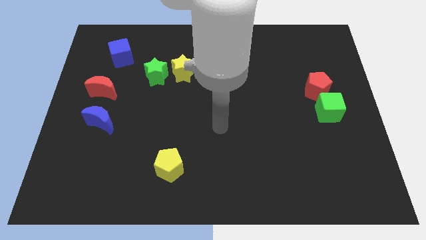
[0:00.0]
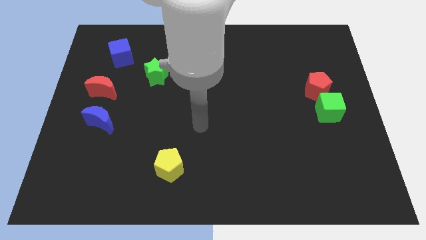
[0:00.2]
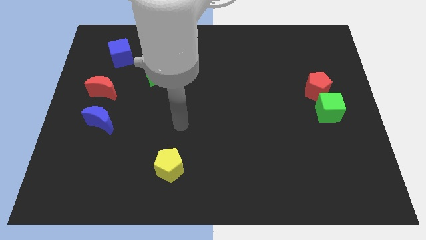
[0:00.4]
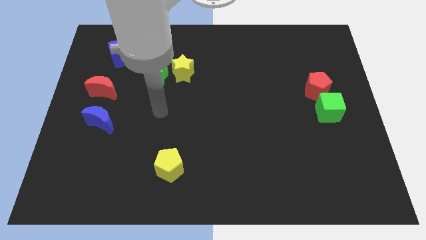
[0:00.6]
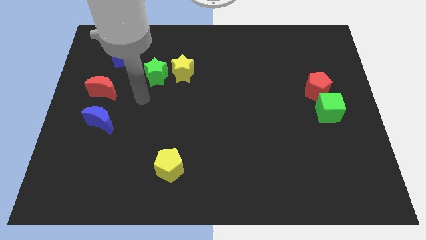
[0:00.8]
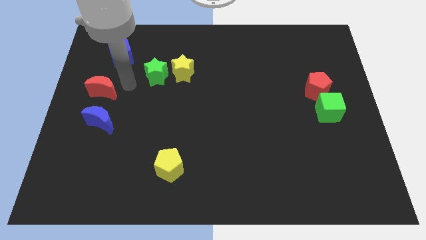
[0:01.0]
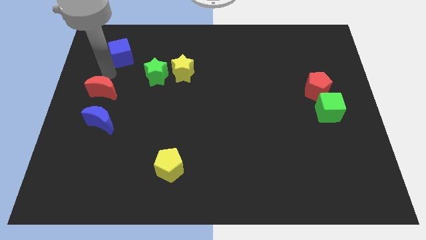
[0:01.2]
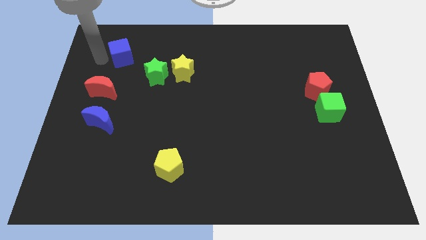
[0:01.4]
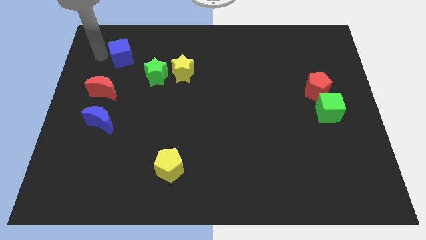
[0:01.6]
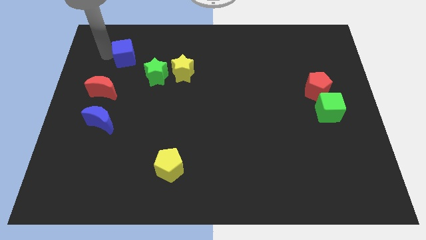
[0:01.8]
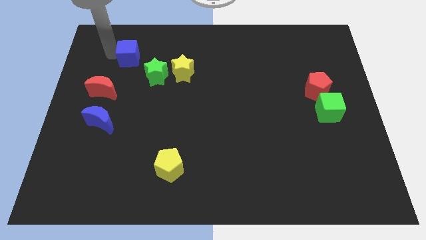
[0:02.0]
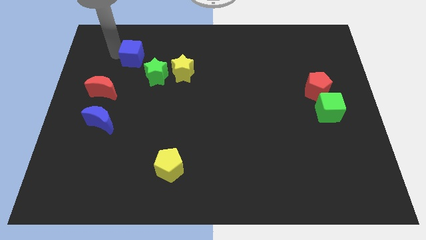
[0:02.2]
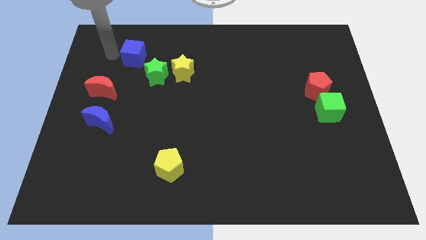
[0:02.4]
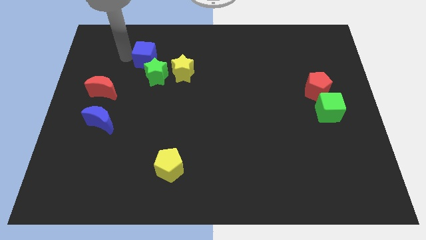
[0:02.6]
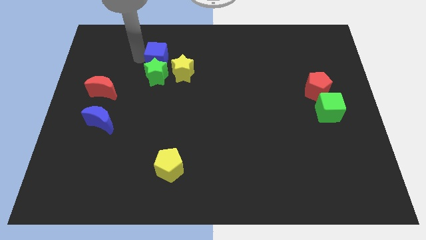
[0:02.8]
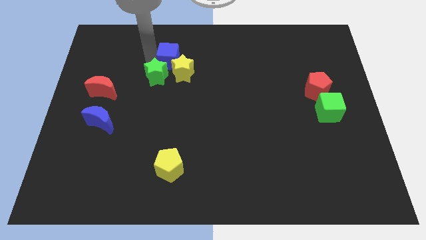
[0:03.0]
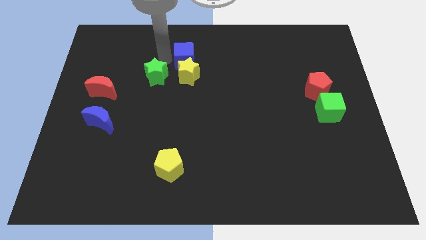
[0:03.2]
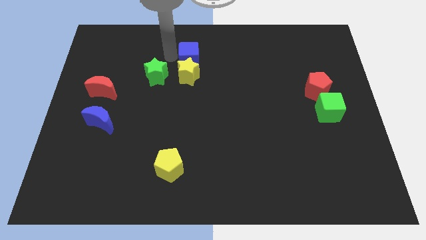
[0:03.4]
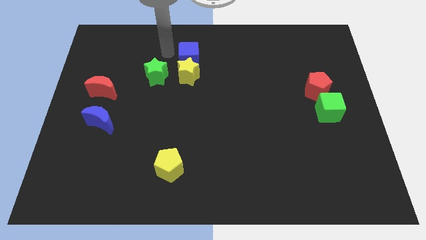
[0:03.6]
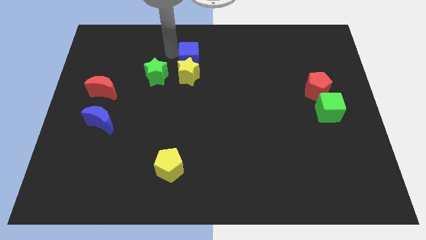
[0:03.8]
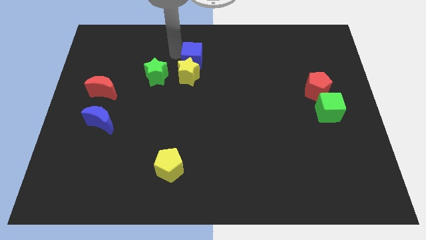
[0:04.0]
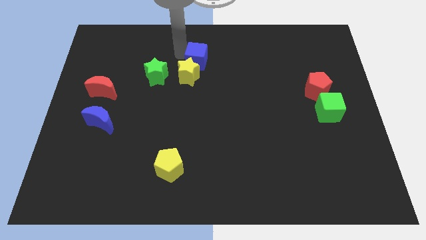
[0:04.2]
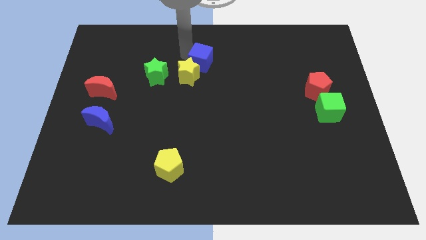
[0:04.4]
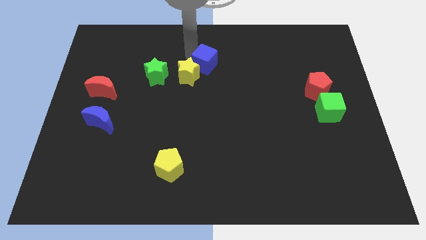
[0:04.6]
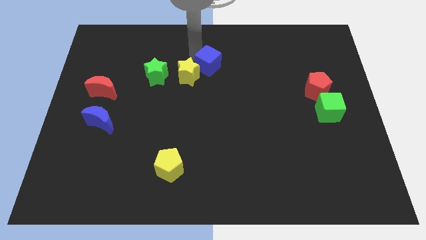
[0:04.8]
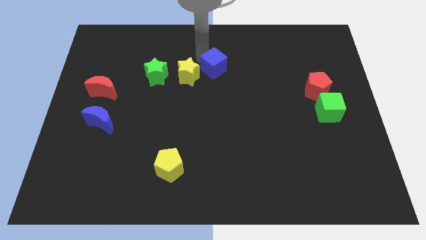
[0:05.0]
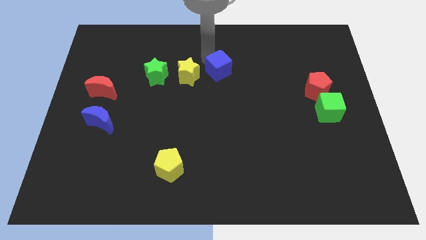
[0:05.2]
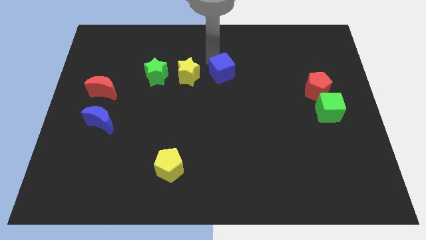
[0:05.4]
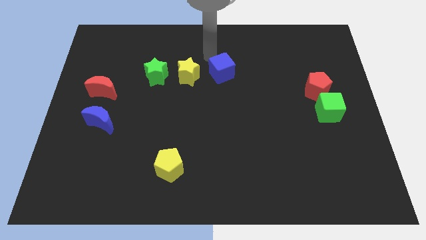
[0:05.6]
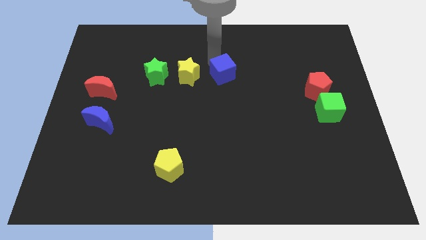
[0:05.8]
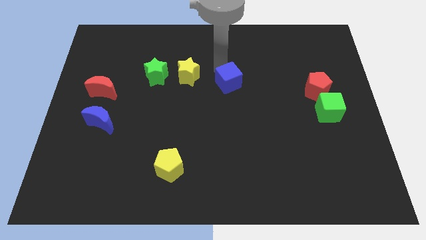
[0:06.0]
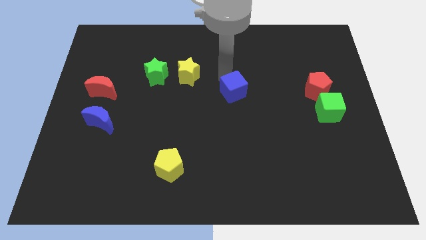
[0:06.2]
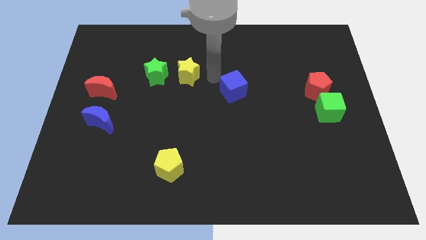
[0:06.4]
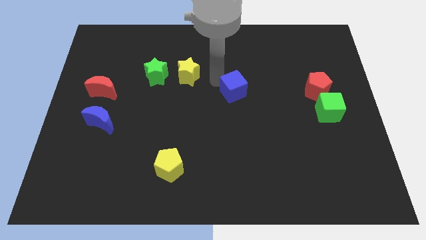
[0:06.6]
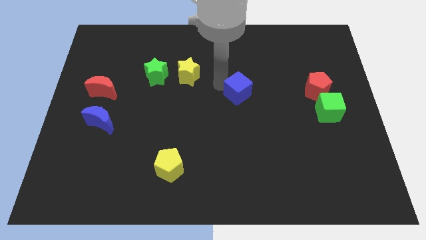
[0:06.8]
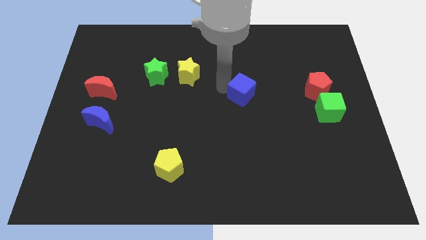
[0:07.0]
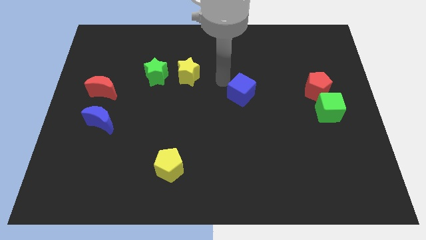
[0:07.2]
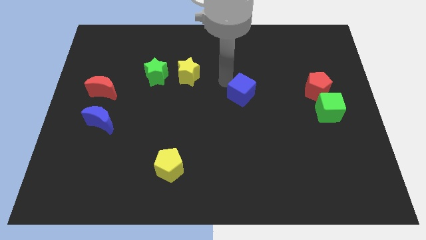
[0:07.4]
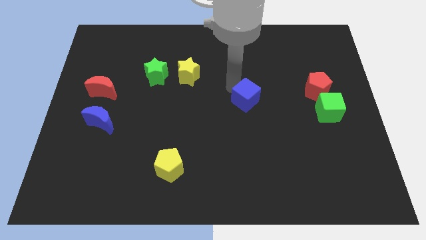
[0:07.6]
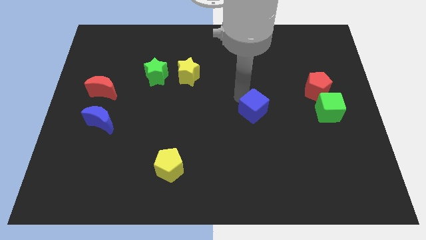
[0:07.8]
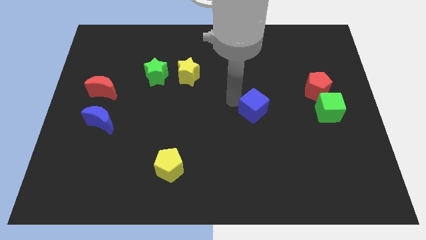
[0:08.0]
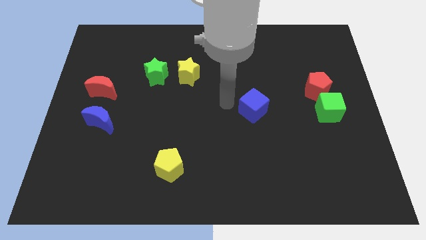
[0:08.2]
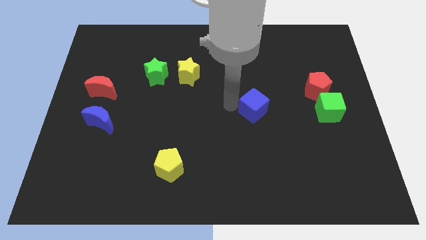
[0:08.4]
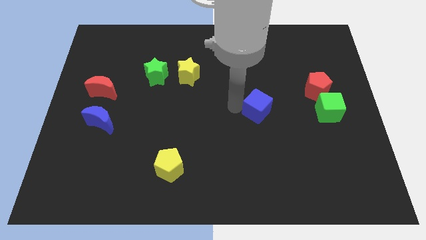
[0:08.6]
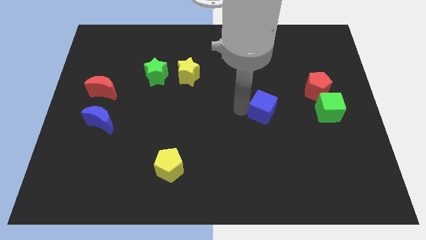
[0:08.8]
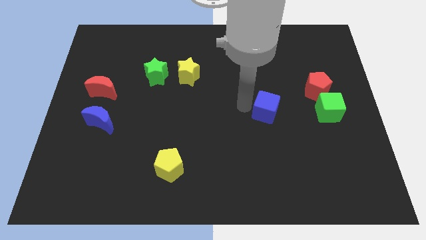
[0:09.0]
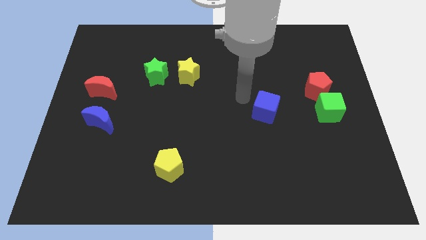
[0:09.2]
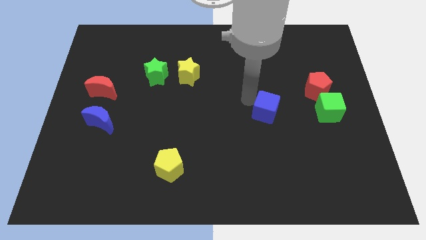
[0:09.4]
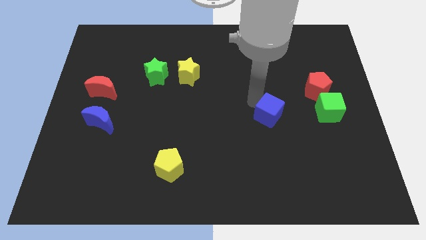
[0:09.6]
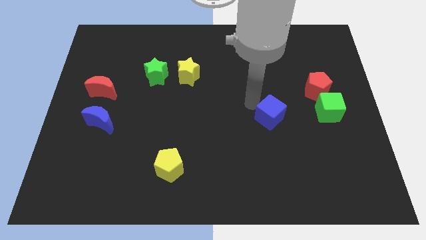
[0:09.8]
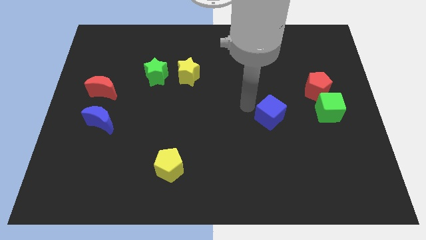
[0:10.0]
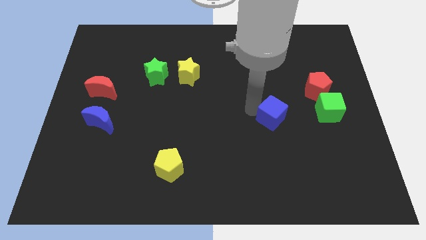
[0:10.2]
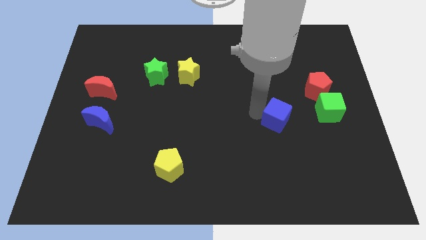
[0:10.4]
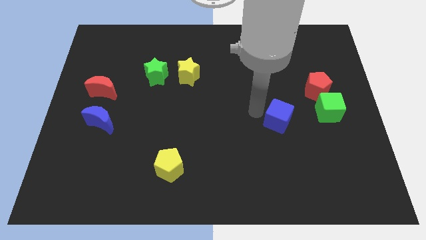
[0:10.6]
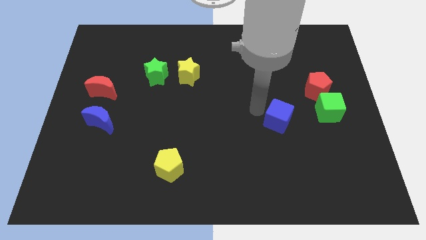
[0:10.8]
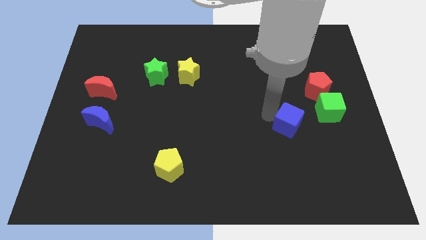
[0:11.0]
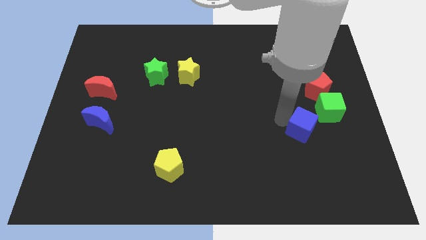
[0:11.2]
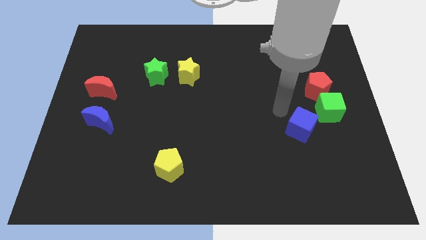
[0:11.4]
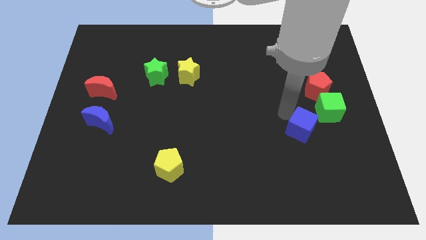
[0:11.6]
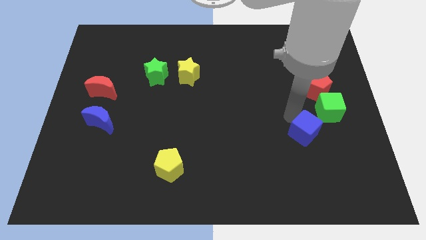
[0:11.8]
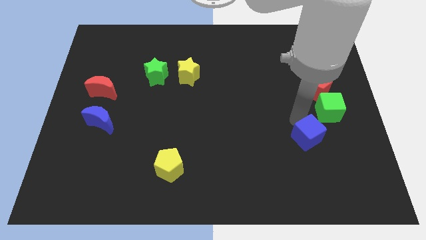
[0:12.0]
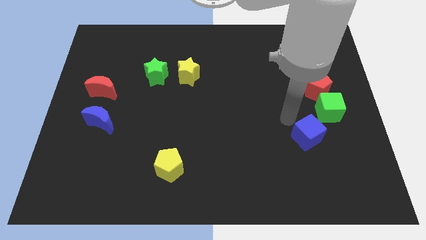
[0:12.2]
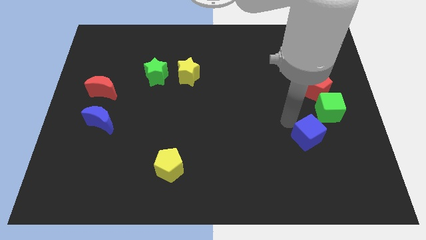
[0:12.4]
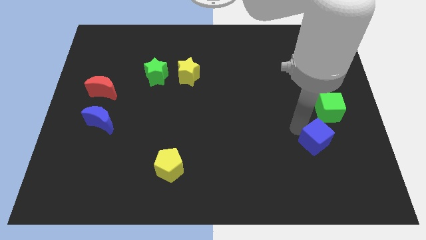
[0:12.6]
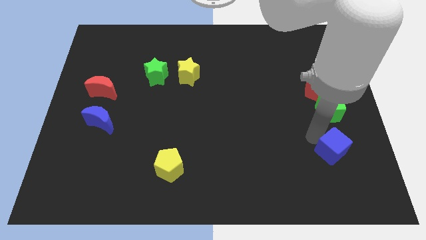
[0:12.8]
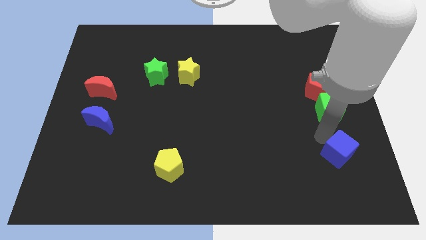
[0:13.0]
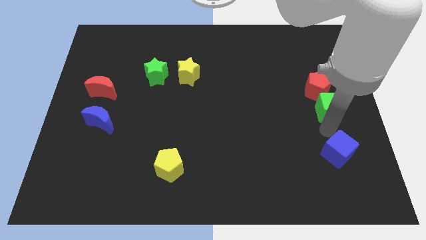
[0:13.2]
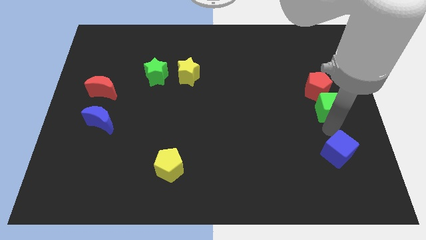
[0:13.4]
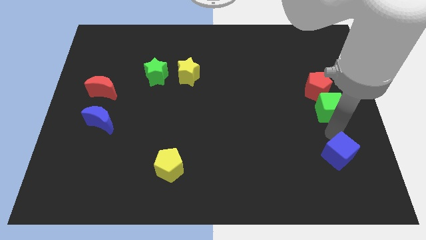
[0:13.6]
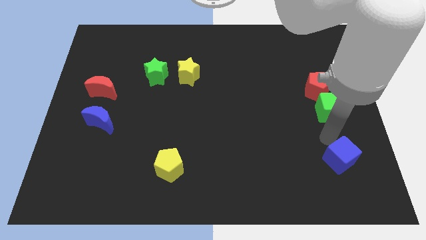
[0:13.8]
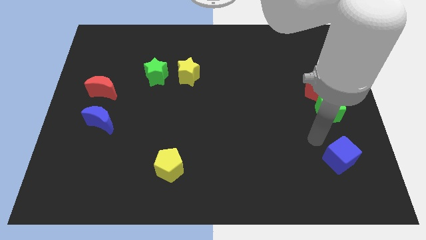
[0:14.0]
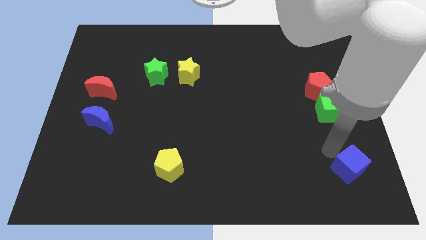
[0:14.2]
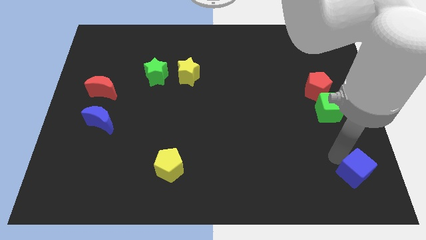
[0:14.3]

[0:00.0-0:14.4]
slide the blue cube to the lower right corner
